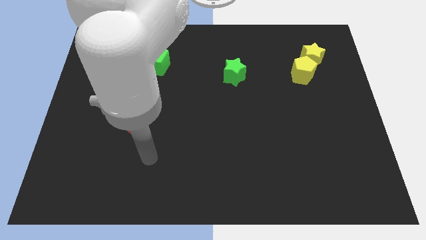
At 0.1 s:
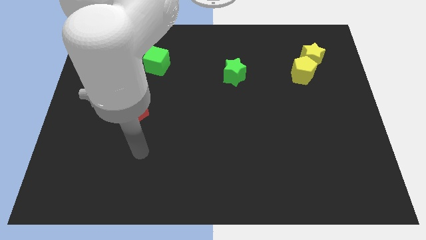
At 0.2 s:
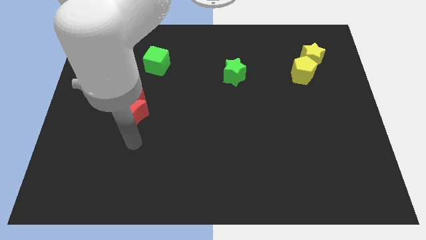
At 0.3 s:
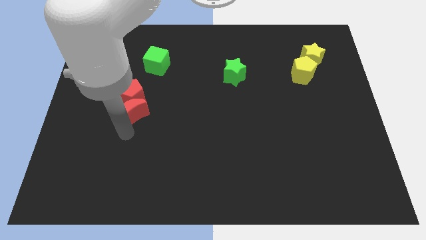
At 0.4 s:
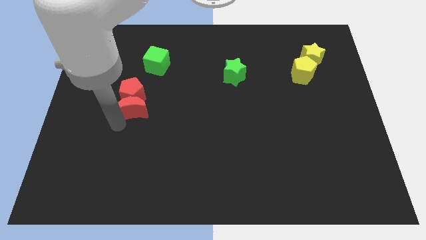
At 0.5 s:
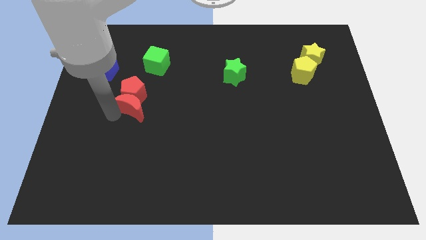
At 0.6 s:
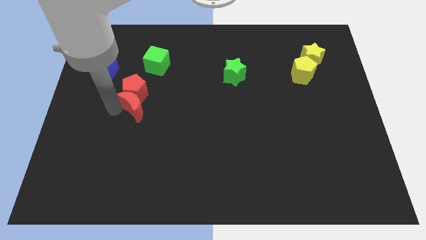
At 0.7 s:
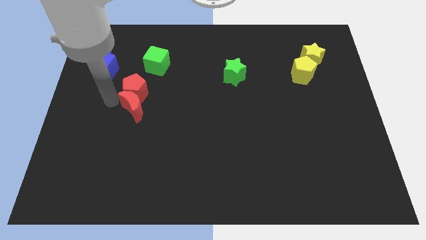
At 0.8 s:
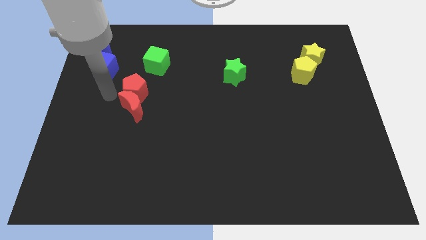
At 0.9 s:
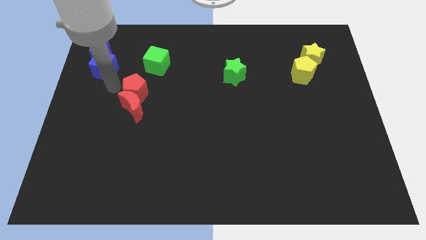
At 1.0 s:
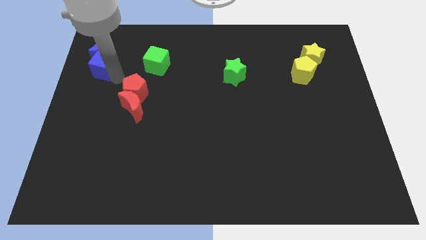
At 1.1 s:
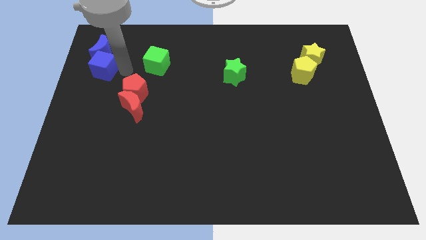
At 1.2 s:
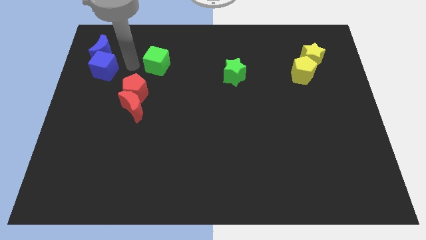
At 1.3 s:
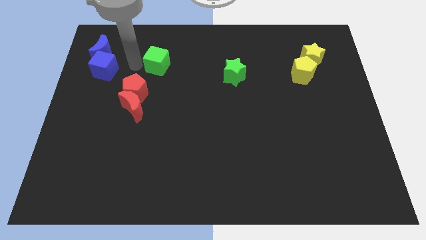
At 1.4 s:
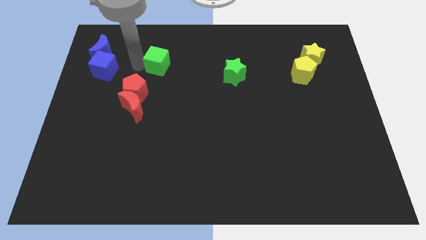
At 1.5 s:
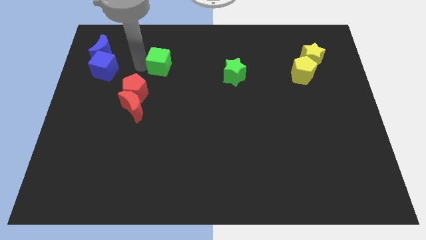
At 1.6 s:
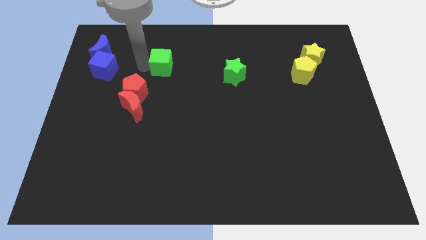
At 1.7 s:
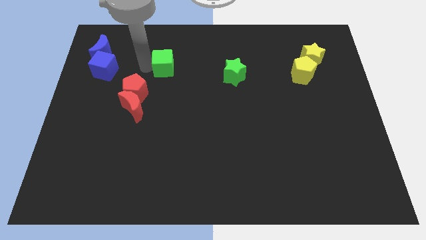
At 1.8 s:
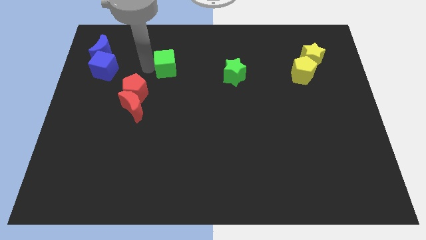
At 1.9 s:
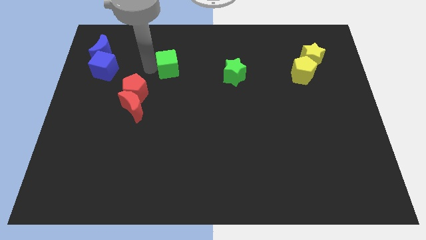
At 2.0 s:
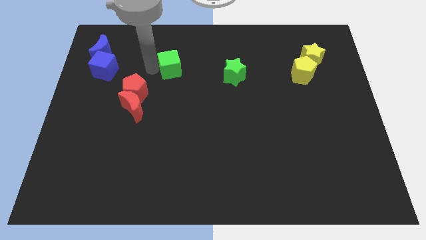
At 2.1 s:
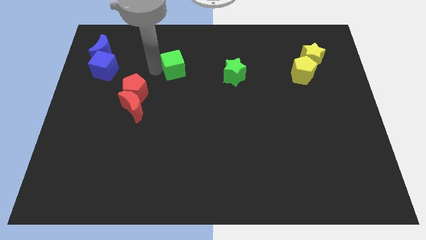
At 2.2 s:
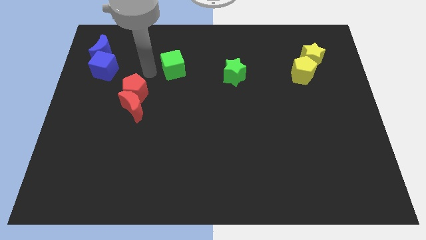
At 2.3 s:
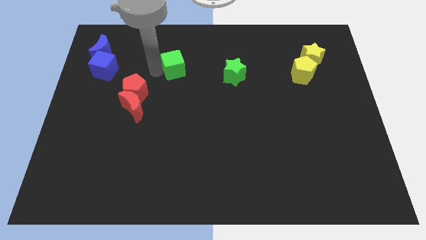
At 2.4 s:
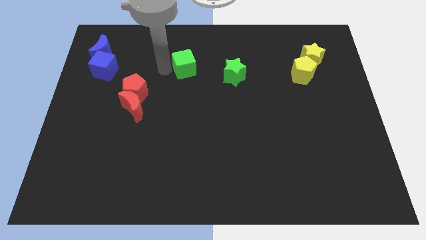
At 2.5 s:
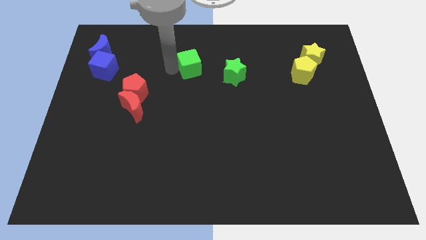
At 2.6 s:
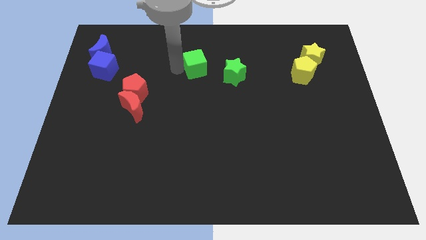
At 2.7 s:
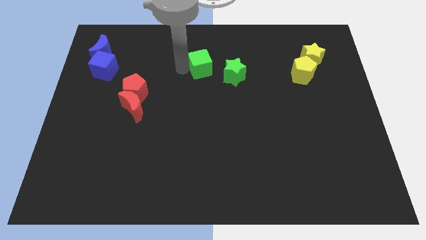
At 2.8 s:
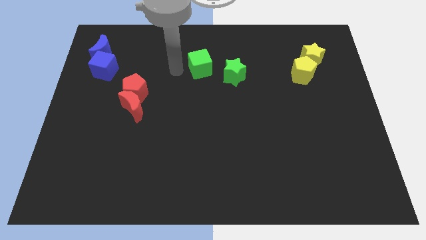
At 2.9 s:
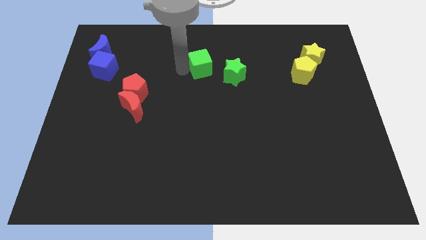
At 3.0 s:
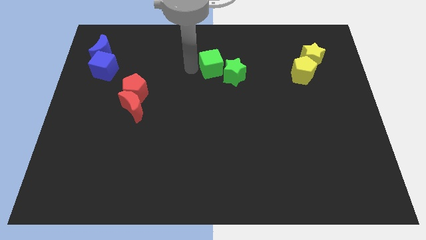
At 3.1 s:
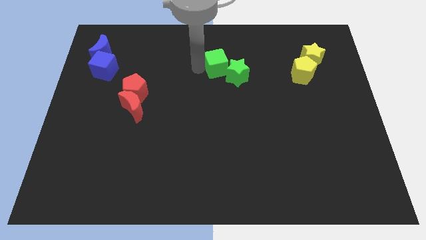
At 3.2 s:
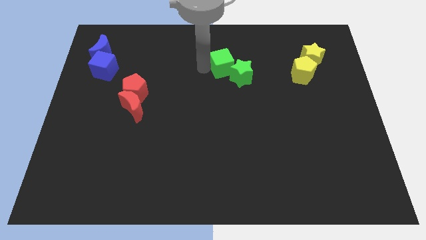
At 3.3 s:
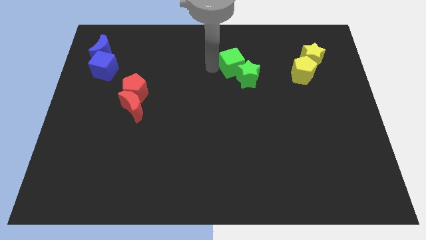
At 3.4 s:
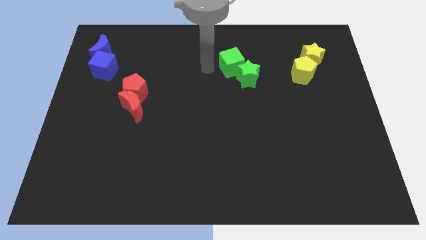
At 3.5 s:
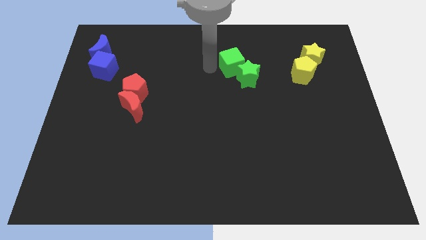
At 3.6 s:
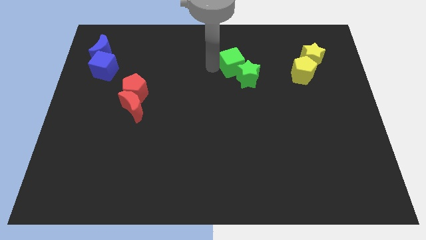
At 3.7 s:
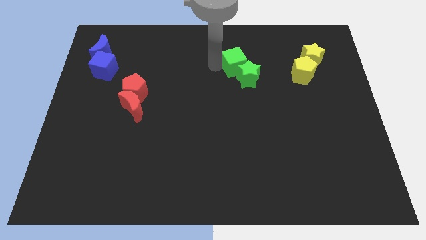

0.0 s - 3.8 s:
push the green cube to the right

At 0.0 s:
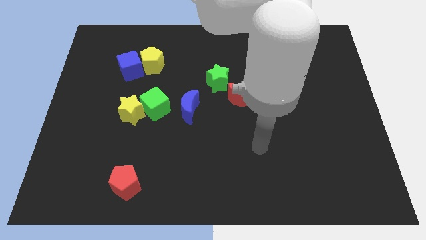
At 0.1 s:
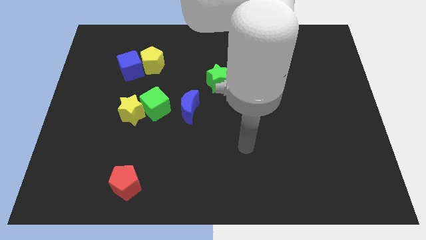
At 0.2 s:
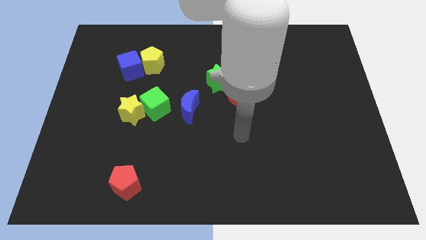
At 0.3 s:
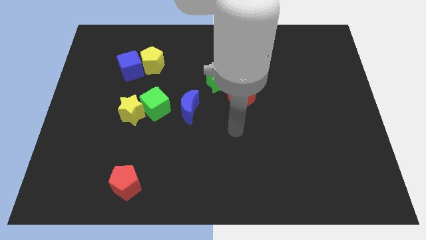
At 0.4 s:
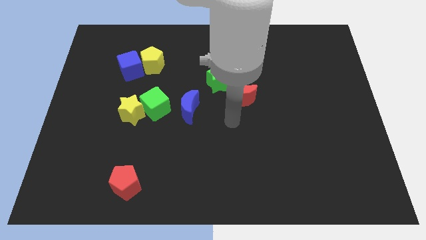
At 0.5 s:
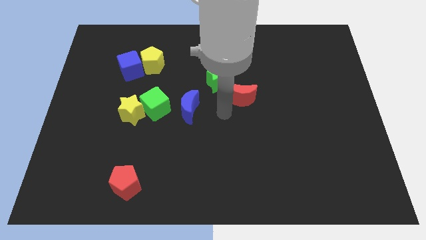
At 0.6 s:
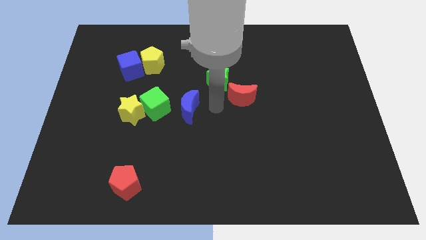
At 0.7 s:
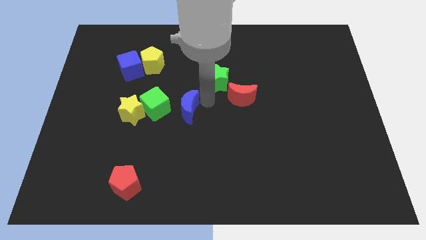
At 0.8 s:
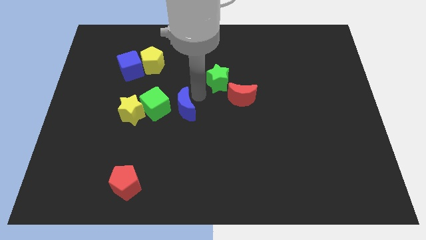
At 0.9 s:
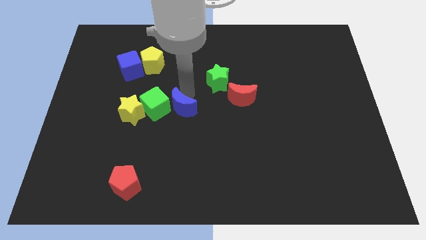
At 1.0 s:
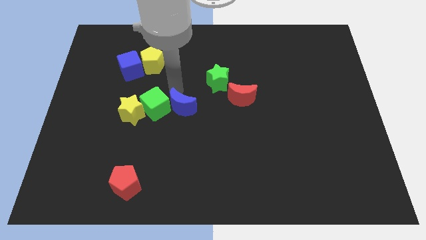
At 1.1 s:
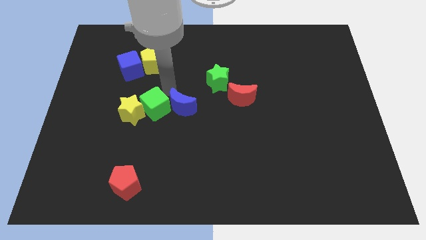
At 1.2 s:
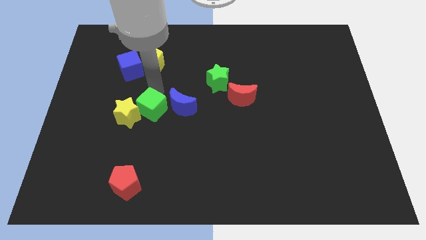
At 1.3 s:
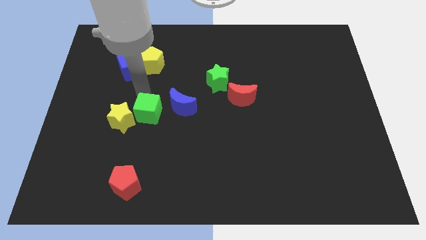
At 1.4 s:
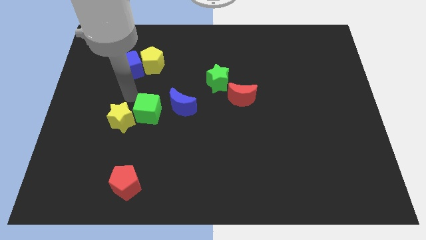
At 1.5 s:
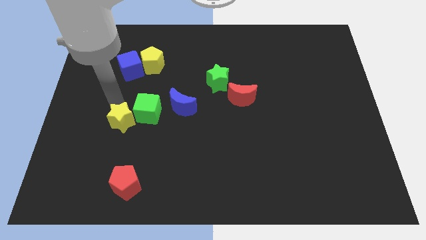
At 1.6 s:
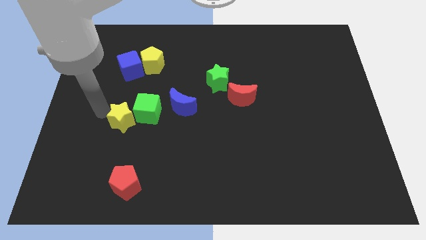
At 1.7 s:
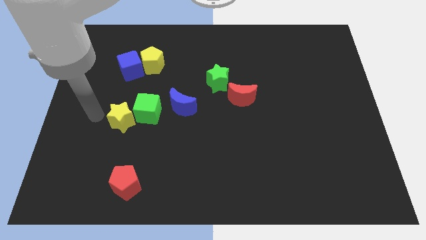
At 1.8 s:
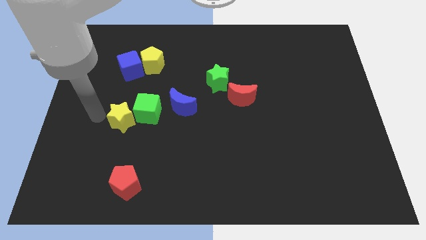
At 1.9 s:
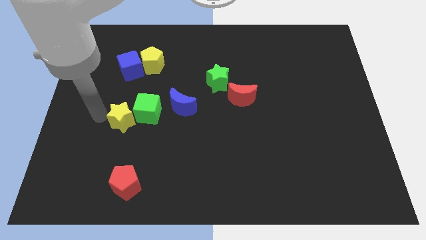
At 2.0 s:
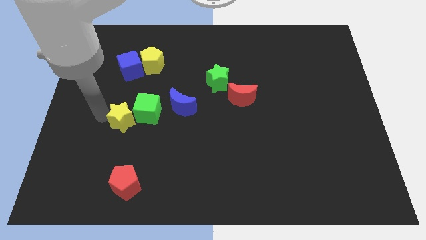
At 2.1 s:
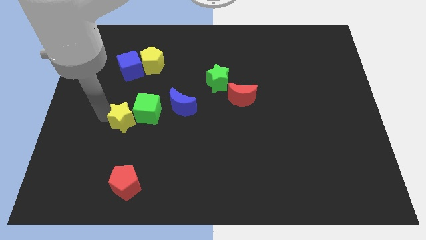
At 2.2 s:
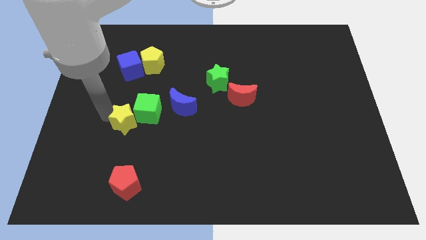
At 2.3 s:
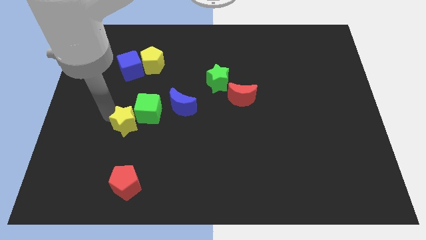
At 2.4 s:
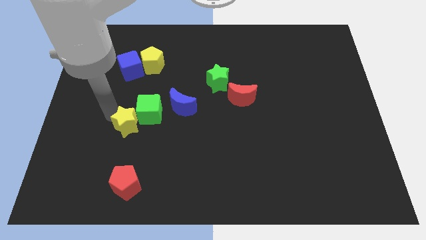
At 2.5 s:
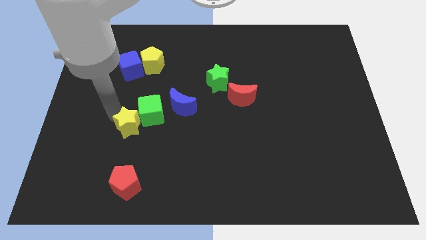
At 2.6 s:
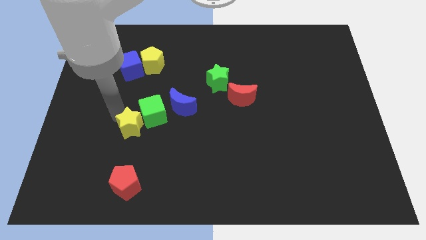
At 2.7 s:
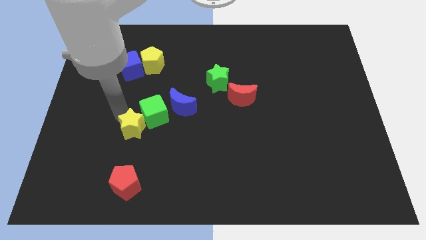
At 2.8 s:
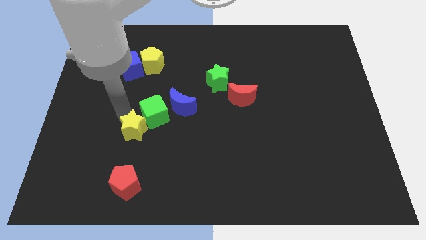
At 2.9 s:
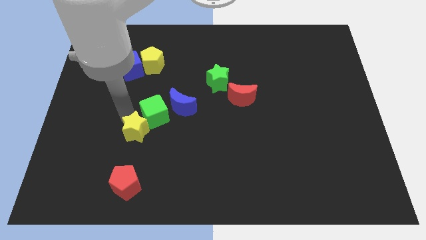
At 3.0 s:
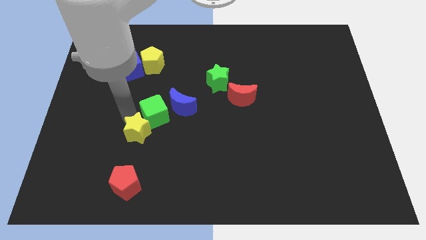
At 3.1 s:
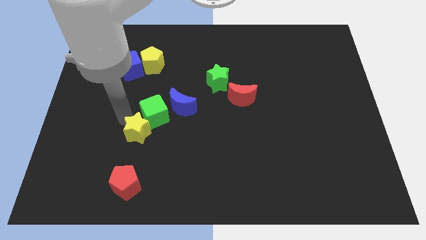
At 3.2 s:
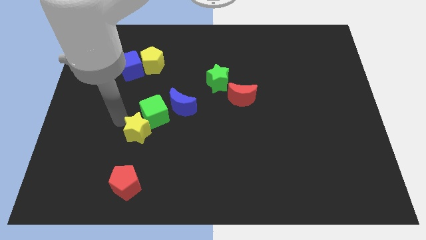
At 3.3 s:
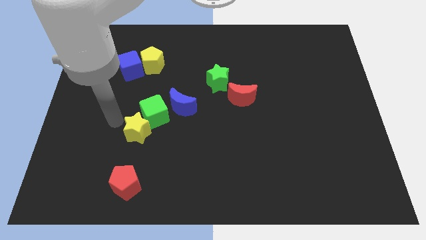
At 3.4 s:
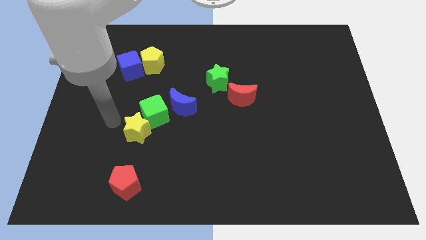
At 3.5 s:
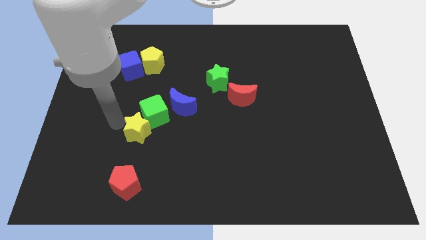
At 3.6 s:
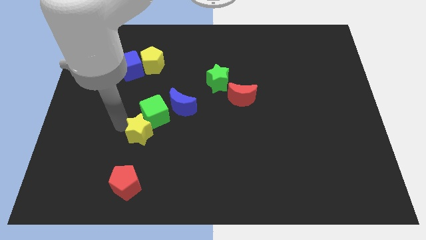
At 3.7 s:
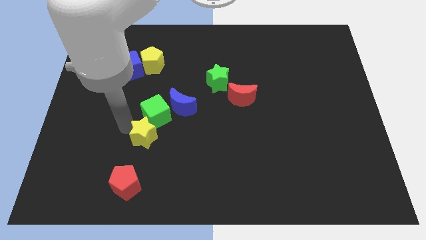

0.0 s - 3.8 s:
slide the yellow star slightly down and to the right diagonally

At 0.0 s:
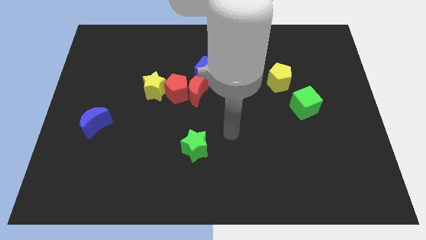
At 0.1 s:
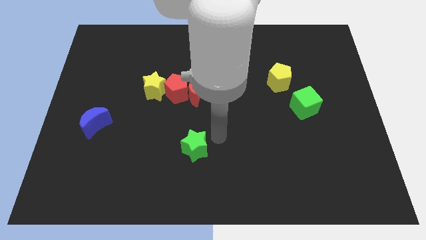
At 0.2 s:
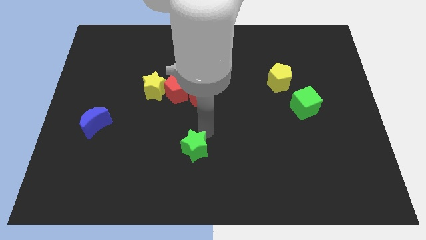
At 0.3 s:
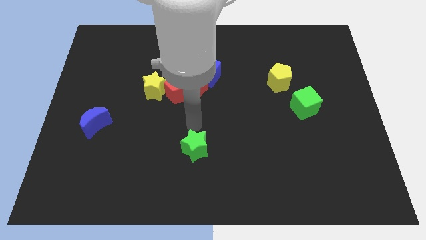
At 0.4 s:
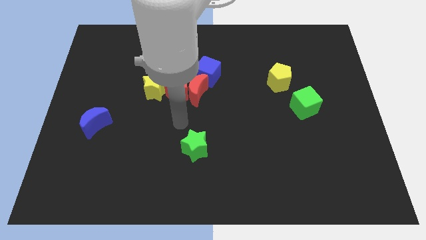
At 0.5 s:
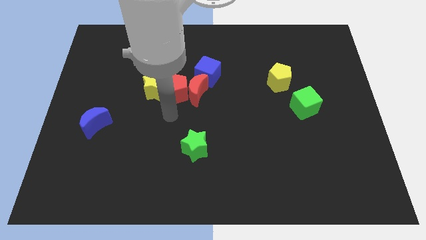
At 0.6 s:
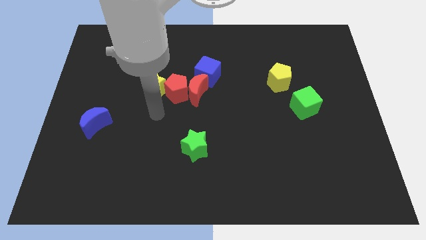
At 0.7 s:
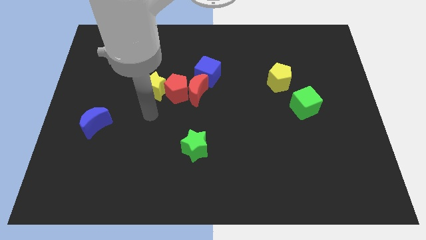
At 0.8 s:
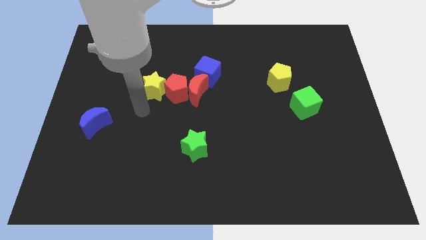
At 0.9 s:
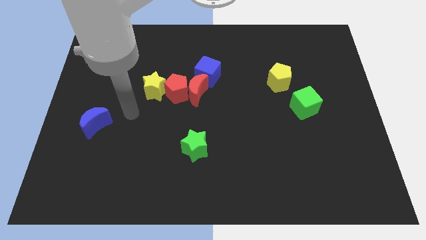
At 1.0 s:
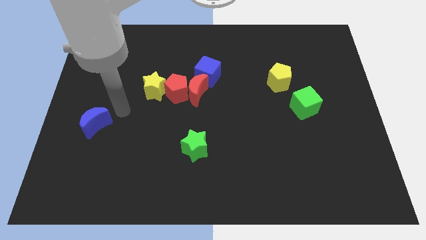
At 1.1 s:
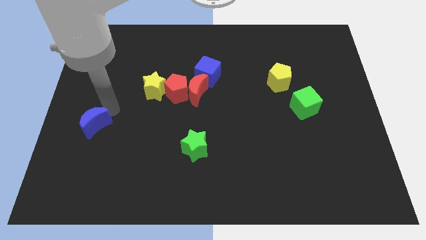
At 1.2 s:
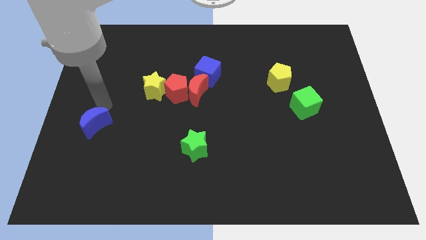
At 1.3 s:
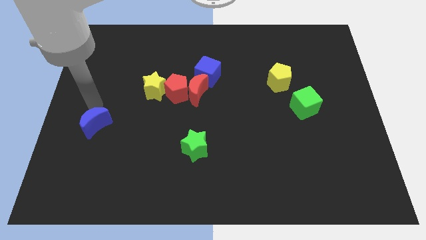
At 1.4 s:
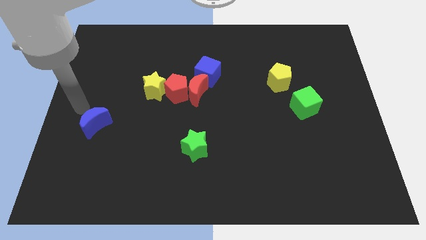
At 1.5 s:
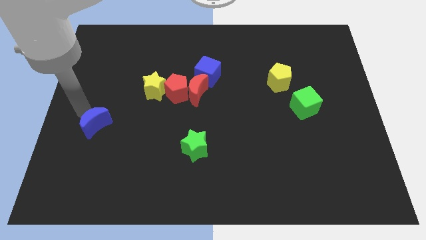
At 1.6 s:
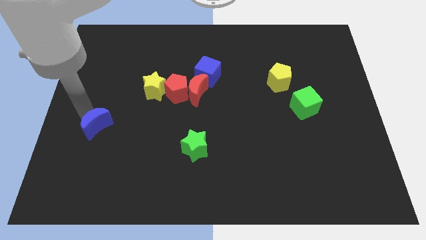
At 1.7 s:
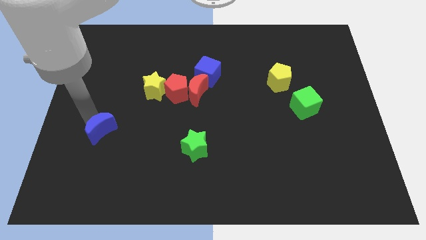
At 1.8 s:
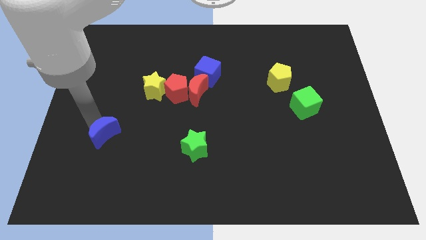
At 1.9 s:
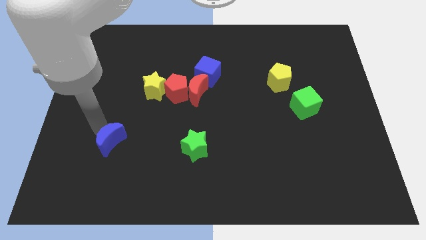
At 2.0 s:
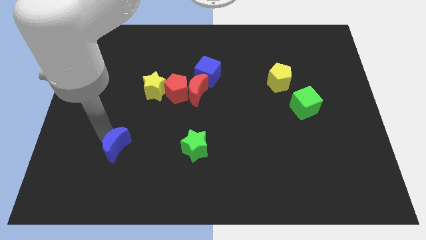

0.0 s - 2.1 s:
slightly slide the blue moon downwards and to the right diagonally
